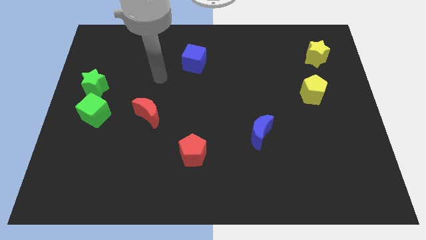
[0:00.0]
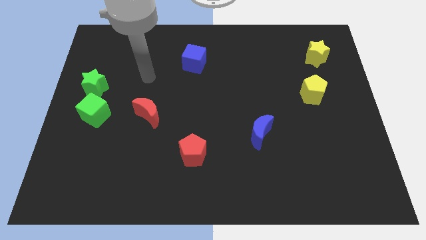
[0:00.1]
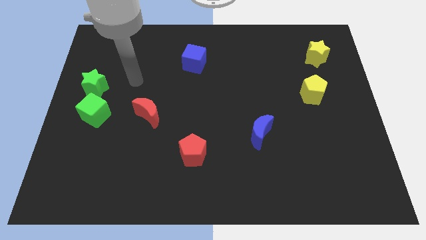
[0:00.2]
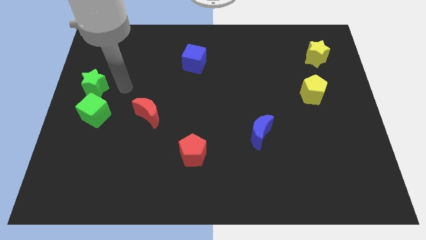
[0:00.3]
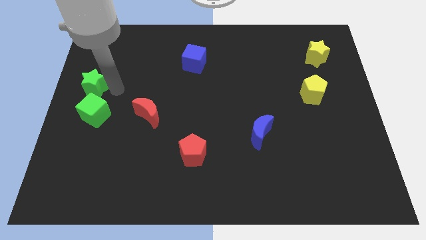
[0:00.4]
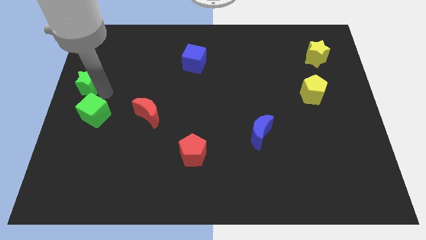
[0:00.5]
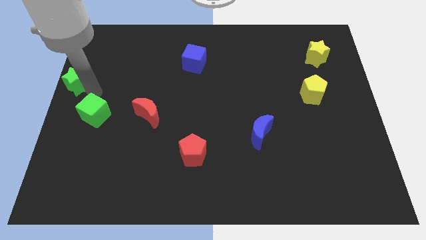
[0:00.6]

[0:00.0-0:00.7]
pull the green cube apart from the green star

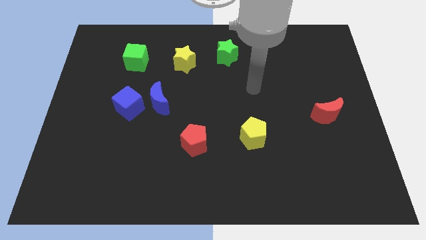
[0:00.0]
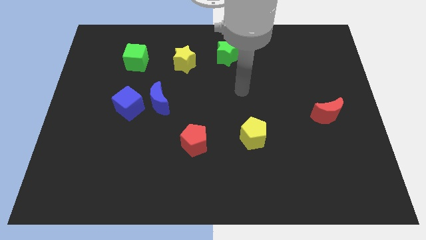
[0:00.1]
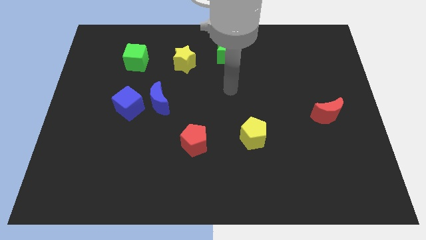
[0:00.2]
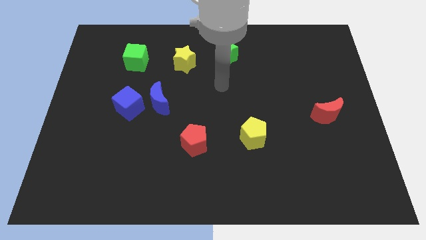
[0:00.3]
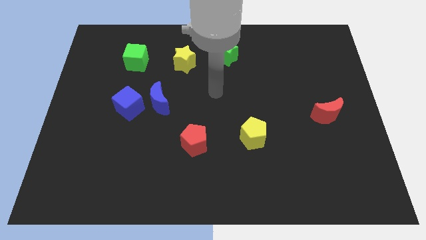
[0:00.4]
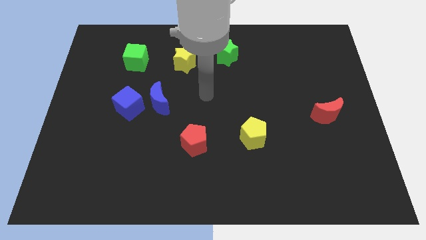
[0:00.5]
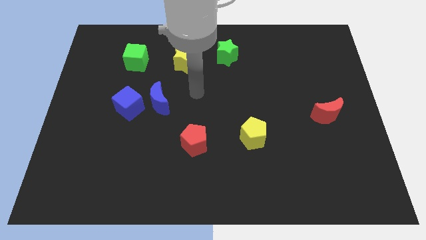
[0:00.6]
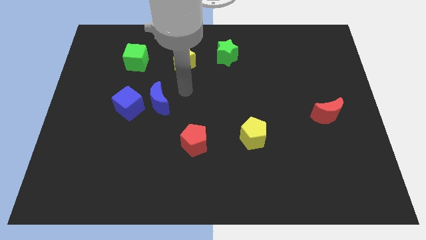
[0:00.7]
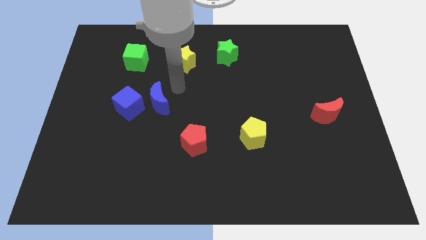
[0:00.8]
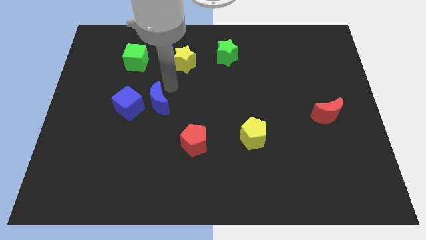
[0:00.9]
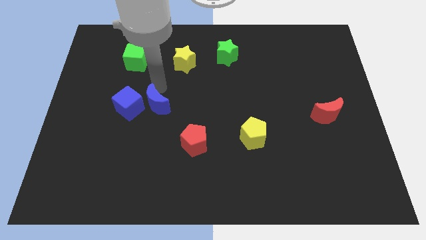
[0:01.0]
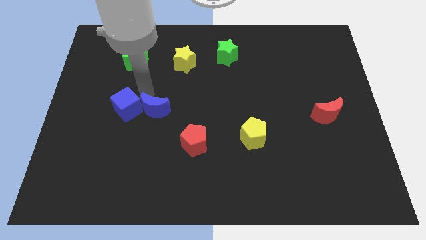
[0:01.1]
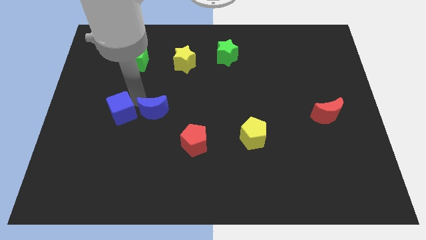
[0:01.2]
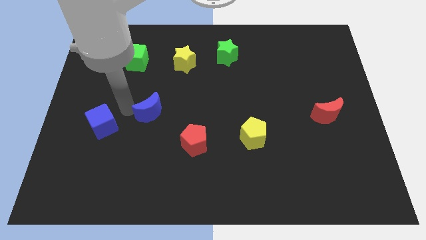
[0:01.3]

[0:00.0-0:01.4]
move the blue moon away from the blue cube

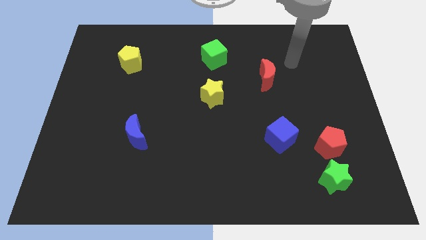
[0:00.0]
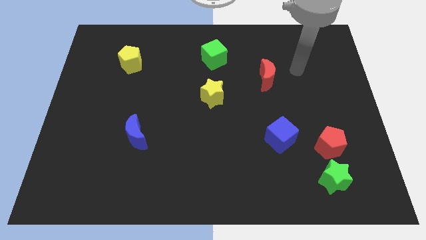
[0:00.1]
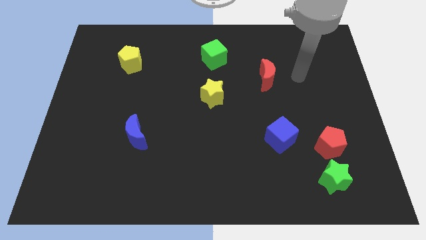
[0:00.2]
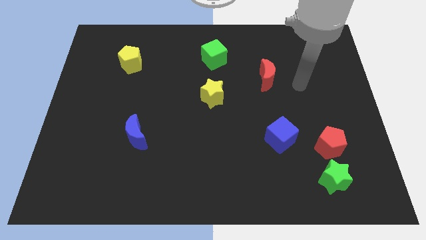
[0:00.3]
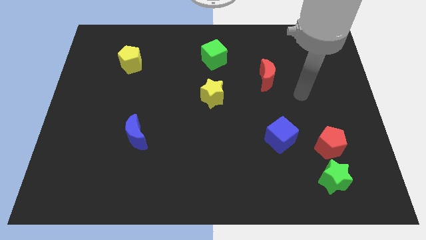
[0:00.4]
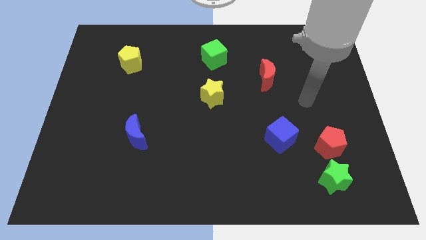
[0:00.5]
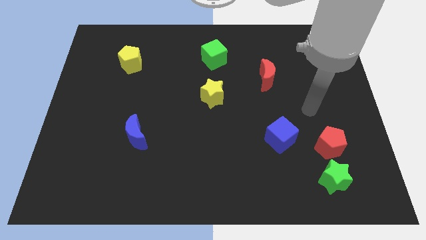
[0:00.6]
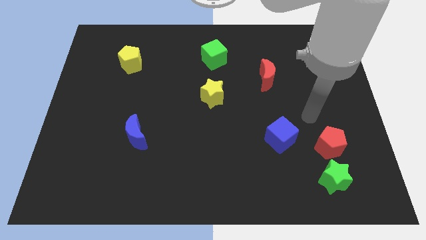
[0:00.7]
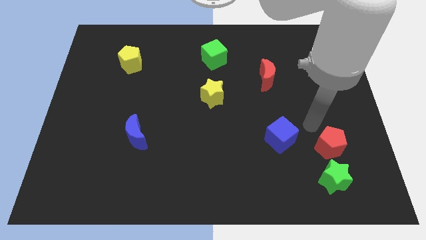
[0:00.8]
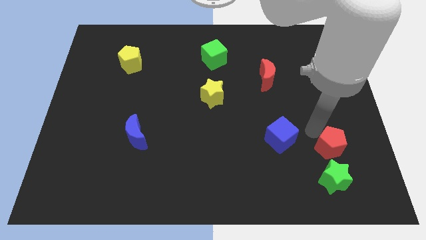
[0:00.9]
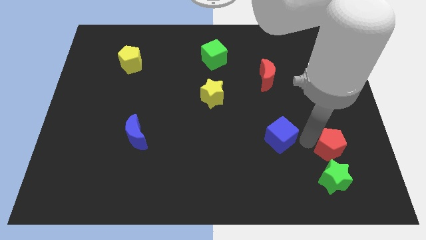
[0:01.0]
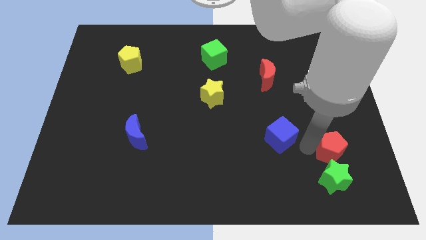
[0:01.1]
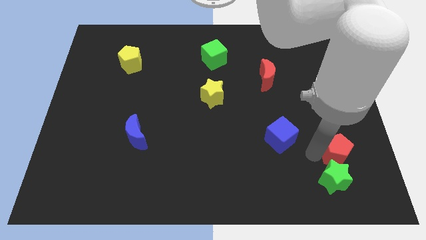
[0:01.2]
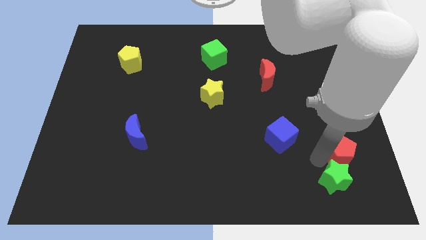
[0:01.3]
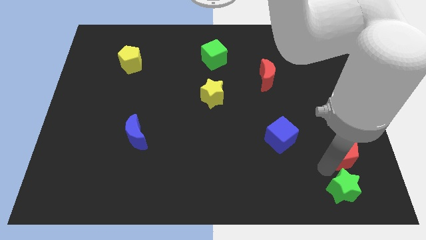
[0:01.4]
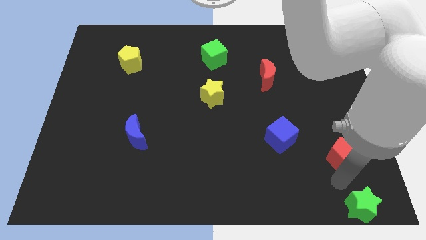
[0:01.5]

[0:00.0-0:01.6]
move the red pentagon away from the green star

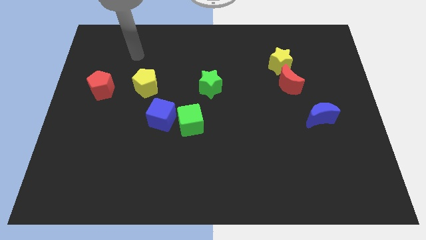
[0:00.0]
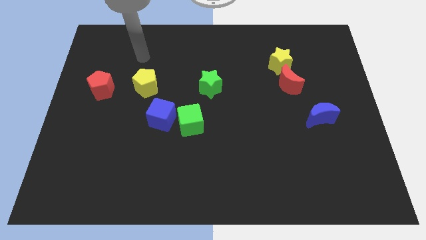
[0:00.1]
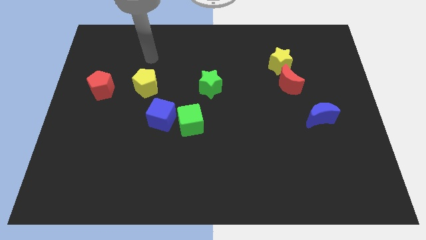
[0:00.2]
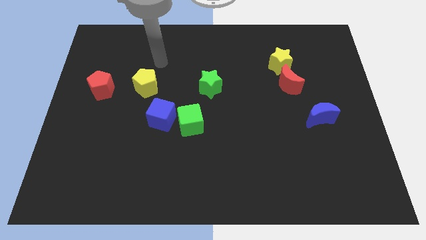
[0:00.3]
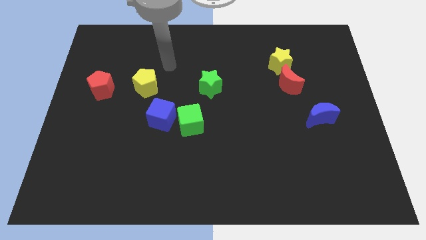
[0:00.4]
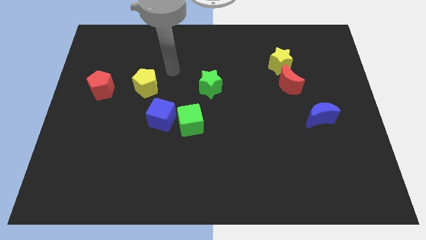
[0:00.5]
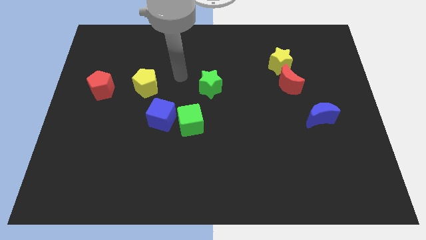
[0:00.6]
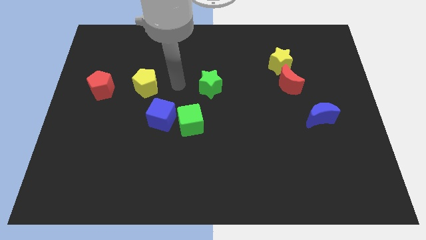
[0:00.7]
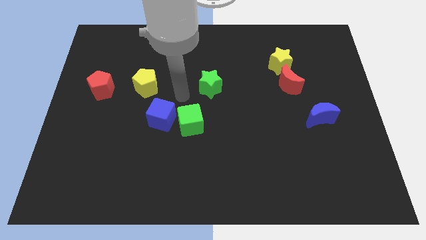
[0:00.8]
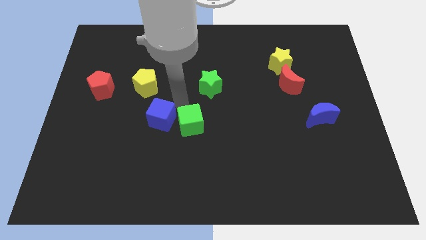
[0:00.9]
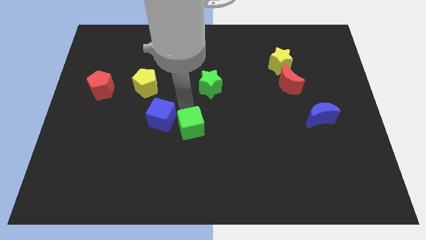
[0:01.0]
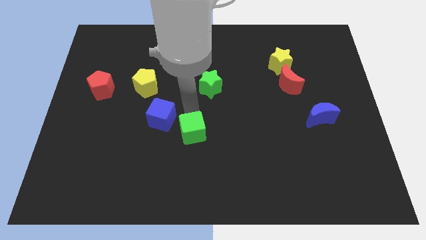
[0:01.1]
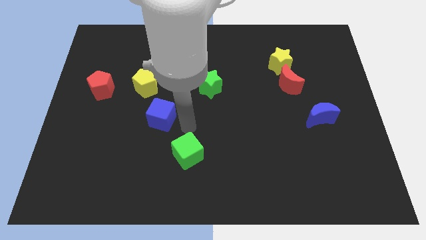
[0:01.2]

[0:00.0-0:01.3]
pull the blue cube apart from the green cube

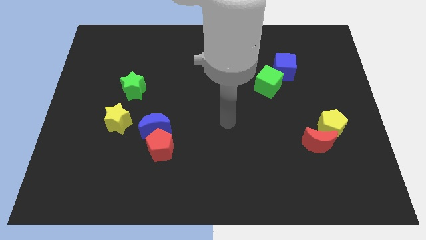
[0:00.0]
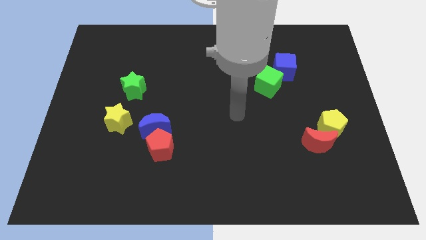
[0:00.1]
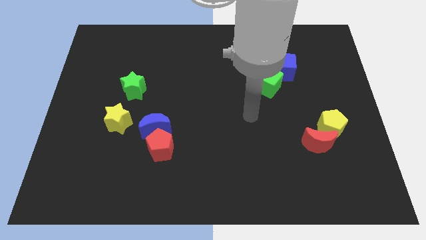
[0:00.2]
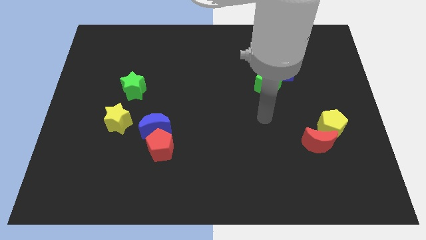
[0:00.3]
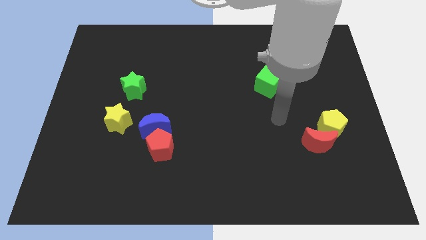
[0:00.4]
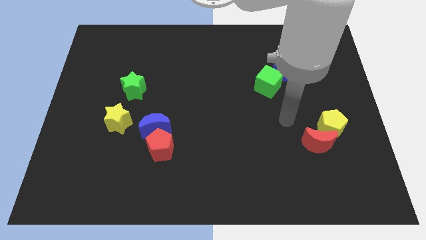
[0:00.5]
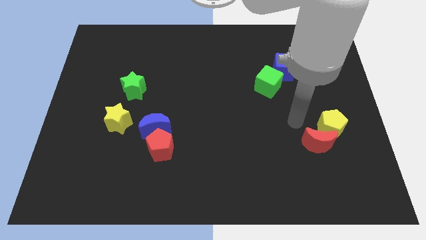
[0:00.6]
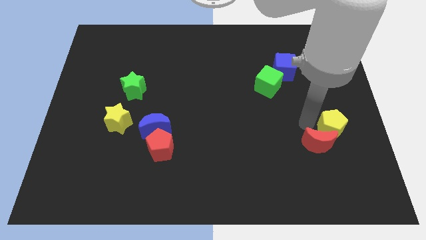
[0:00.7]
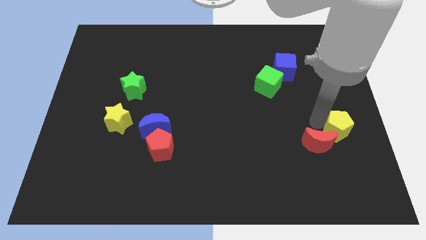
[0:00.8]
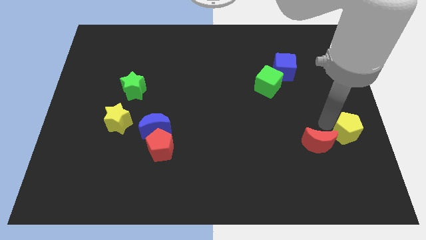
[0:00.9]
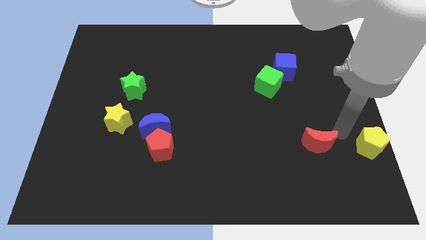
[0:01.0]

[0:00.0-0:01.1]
separate the red moon from the yellow pentagon

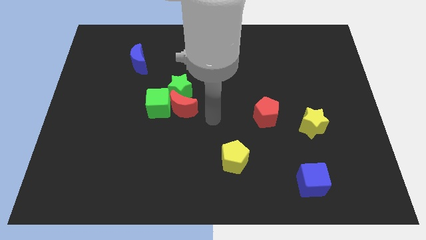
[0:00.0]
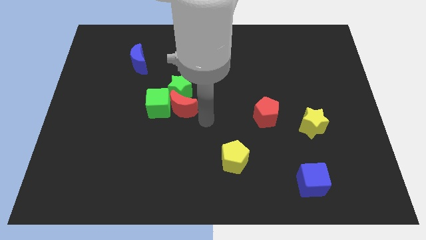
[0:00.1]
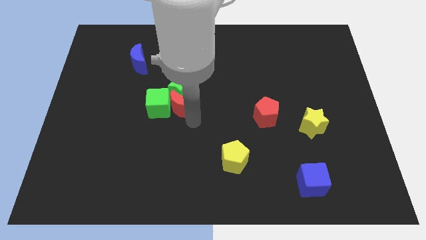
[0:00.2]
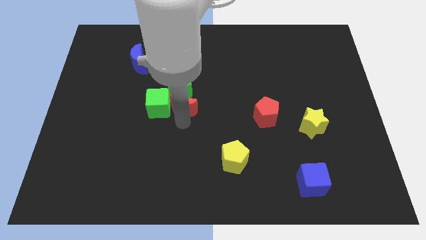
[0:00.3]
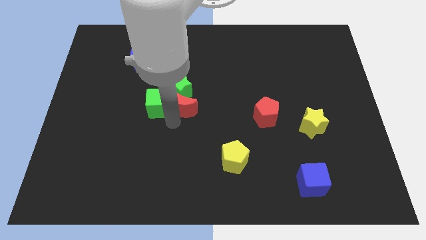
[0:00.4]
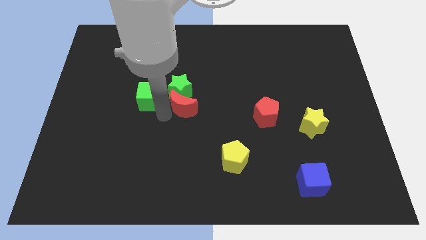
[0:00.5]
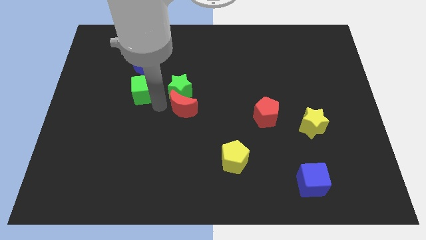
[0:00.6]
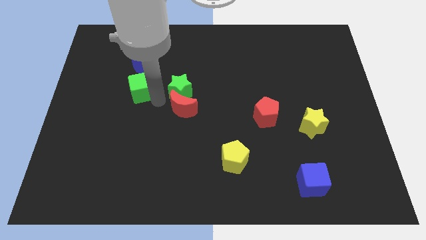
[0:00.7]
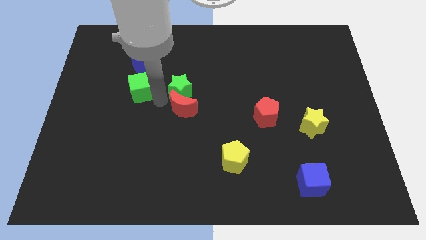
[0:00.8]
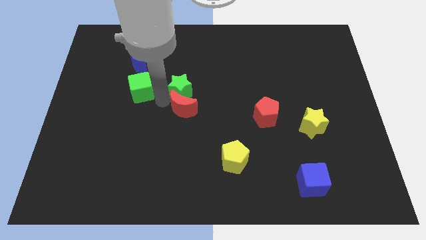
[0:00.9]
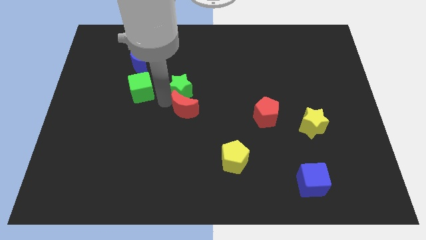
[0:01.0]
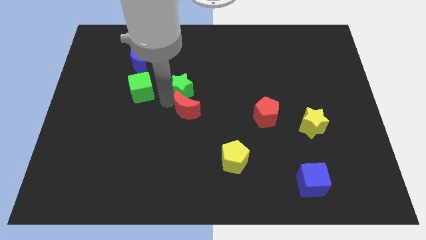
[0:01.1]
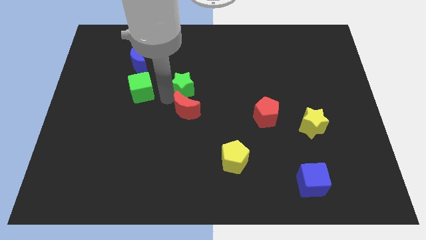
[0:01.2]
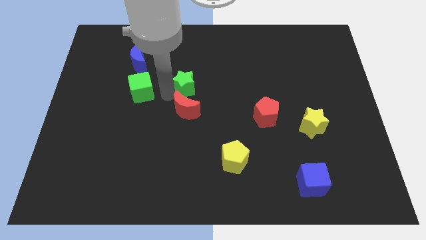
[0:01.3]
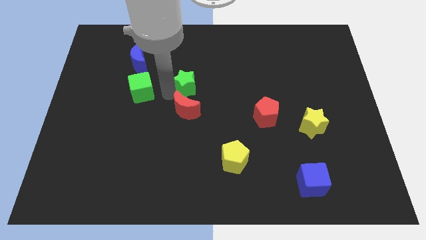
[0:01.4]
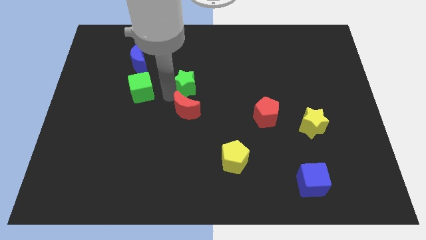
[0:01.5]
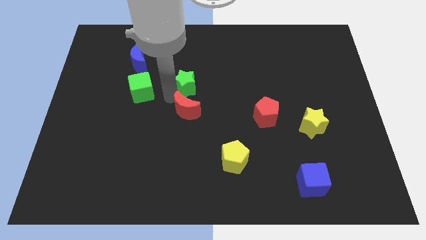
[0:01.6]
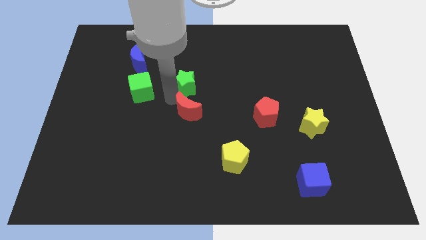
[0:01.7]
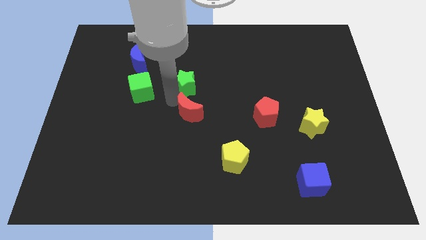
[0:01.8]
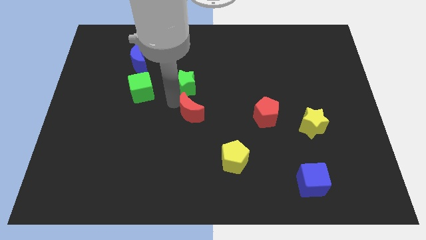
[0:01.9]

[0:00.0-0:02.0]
pull the red moon apart from the green star and green cube

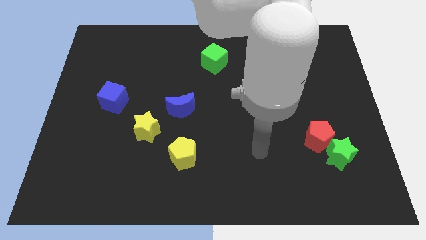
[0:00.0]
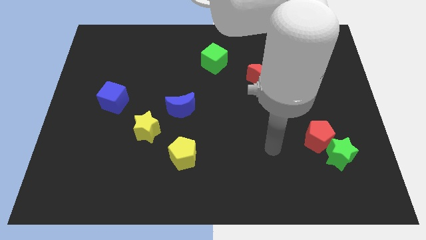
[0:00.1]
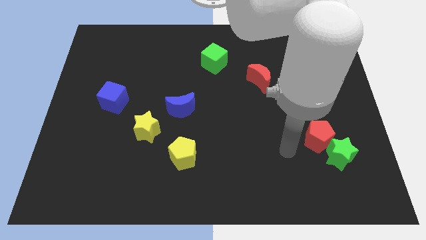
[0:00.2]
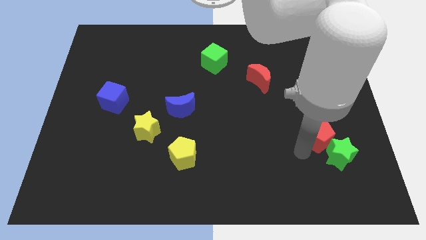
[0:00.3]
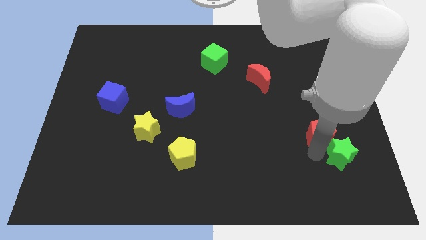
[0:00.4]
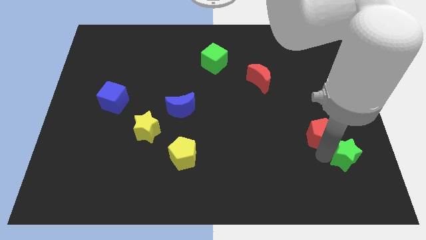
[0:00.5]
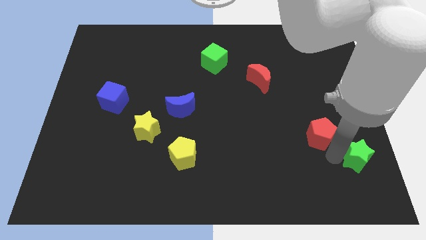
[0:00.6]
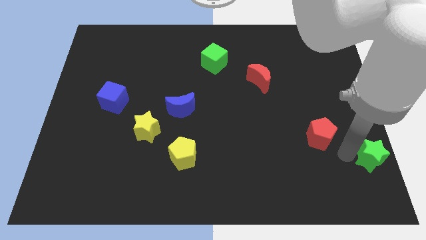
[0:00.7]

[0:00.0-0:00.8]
separate the red pentagon from the green star

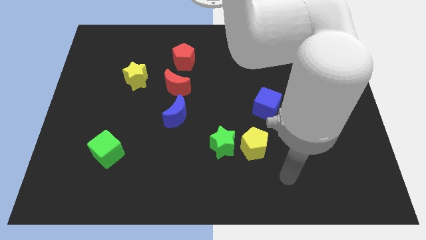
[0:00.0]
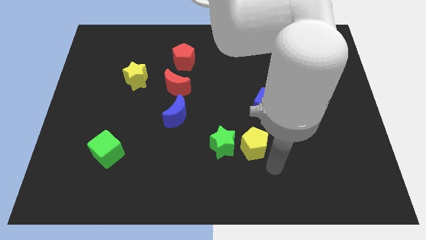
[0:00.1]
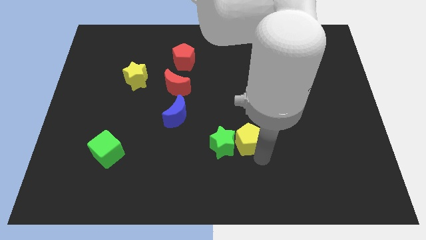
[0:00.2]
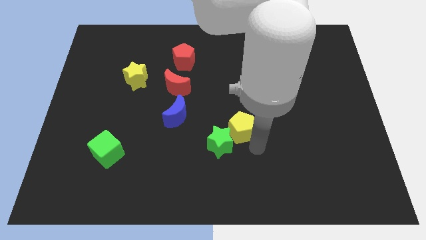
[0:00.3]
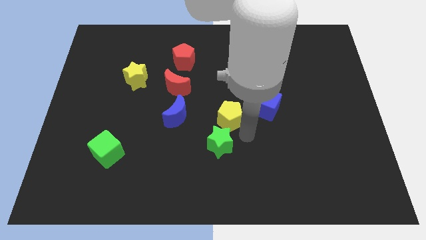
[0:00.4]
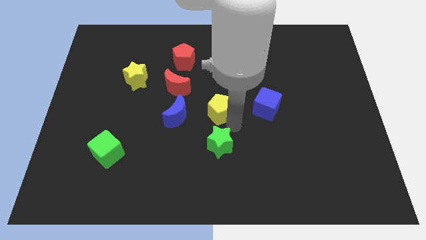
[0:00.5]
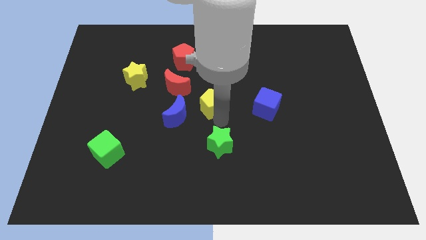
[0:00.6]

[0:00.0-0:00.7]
separate the green star from the yellow pentagon
